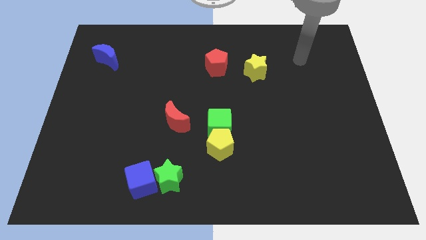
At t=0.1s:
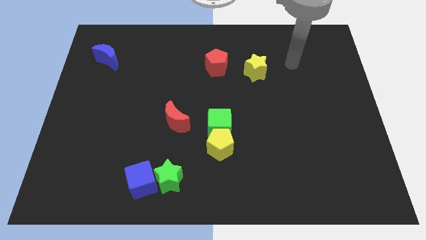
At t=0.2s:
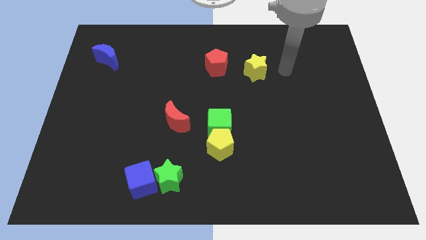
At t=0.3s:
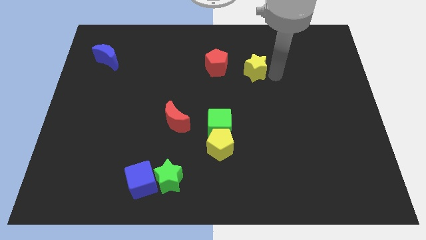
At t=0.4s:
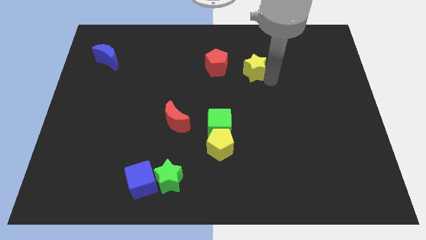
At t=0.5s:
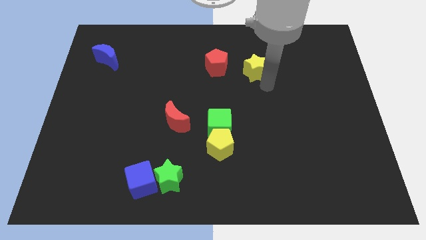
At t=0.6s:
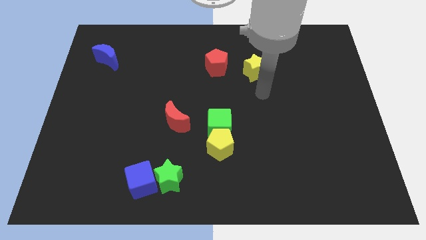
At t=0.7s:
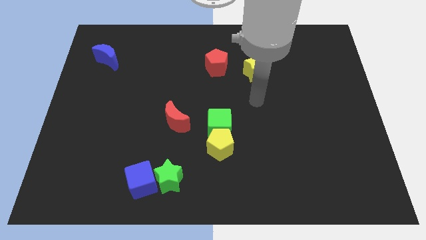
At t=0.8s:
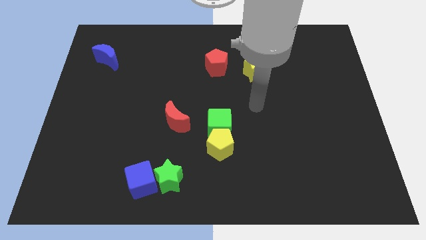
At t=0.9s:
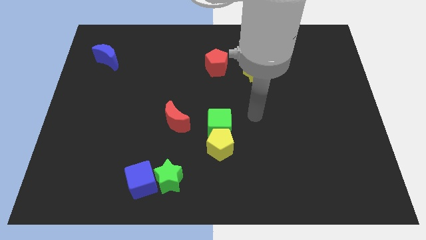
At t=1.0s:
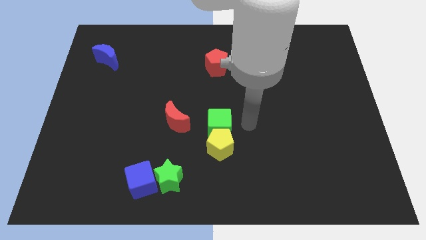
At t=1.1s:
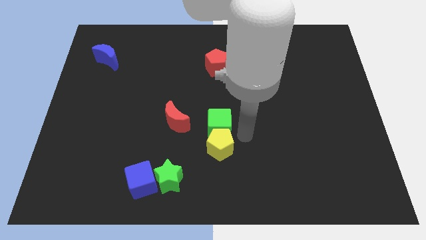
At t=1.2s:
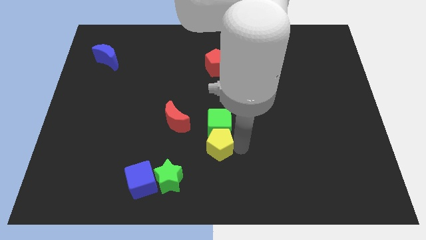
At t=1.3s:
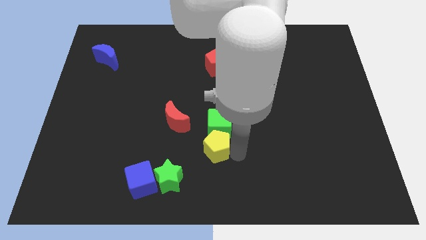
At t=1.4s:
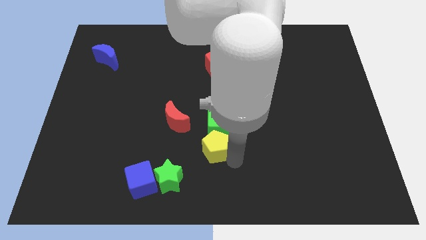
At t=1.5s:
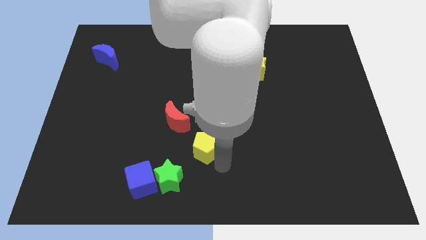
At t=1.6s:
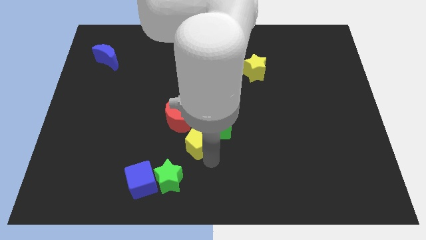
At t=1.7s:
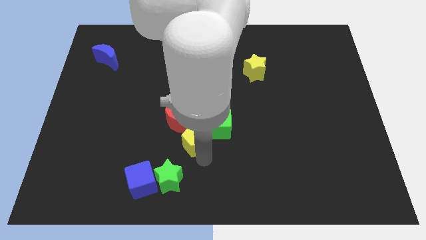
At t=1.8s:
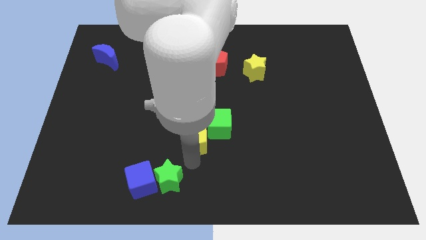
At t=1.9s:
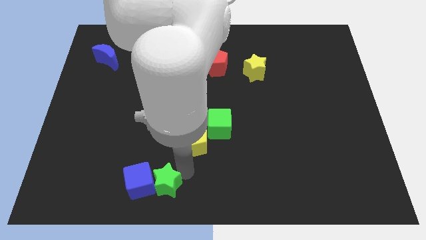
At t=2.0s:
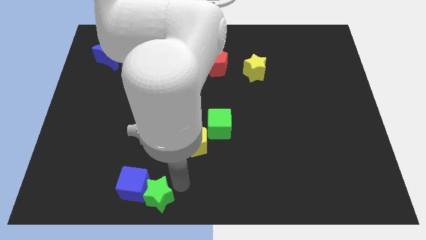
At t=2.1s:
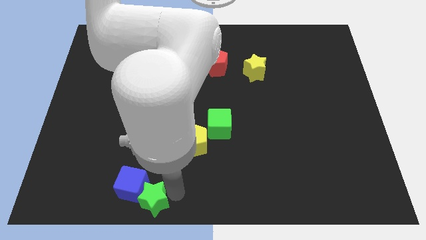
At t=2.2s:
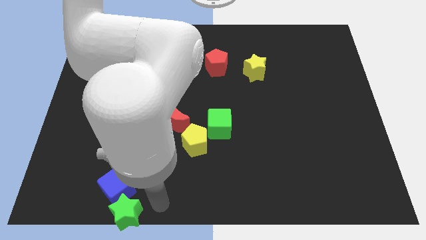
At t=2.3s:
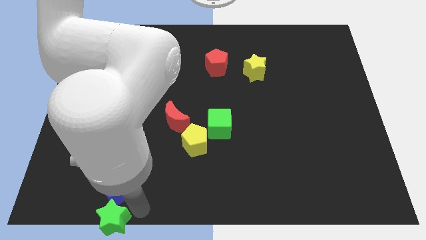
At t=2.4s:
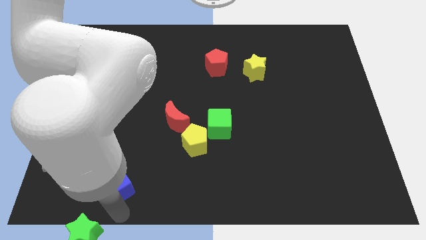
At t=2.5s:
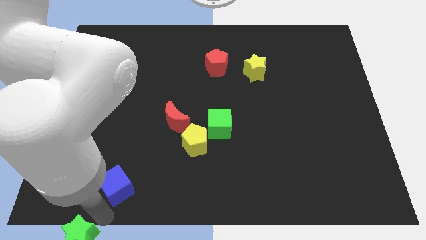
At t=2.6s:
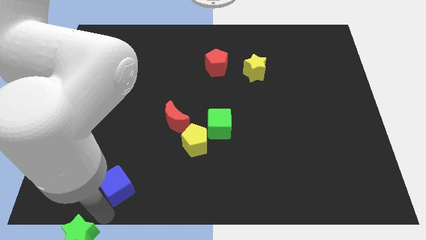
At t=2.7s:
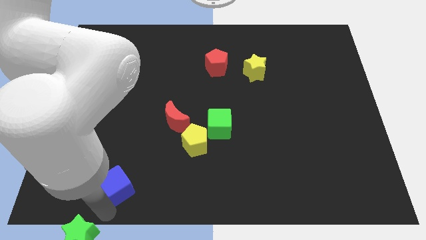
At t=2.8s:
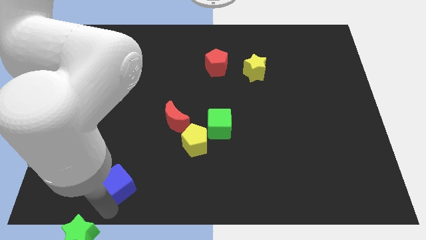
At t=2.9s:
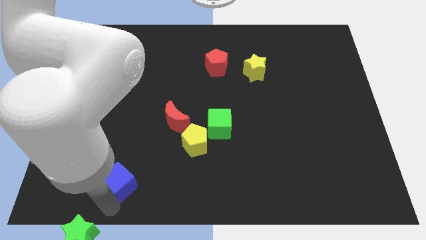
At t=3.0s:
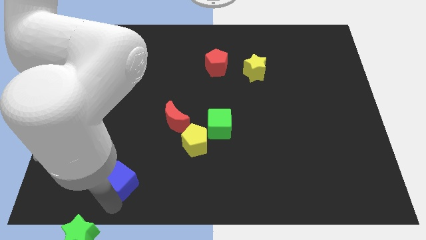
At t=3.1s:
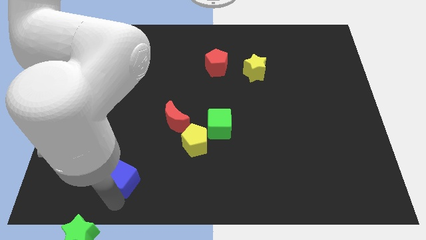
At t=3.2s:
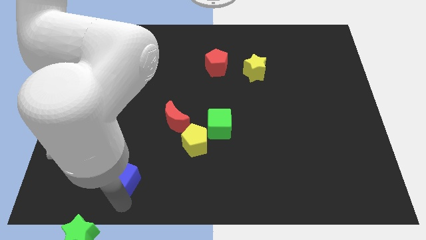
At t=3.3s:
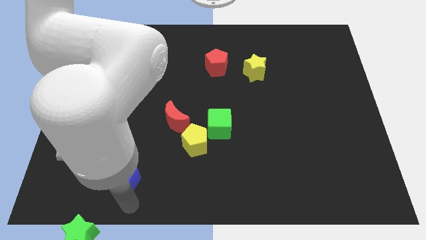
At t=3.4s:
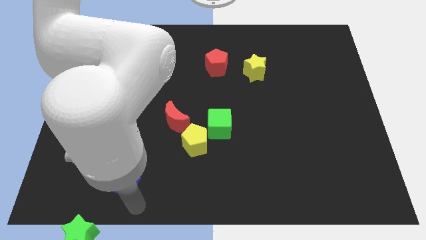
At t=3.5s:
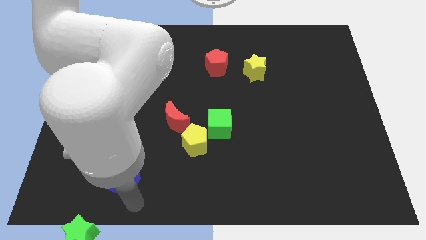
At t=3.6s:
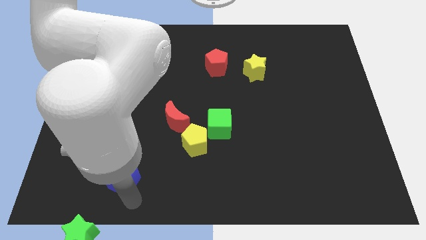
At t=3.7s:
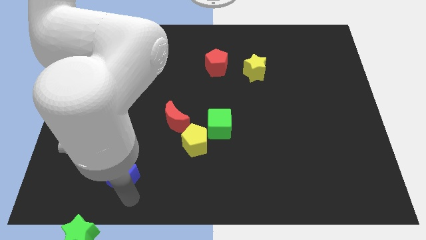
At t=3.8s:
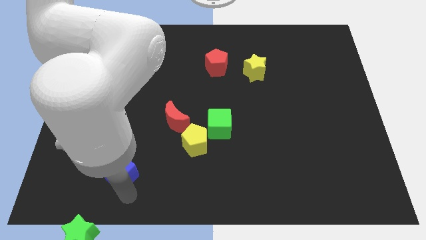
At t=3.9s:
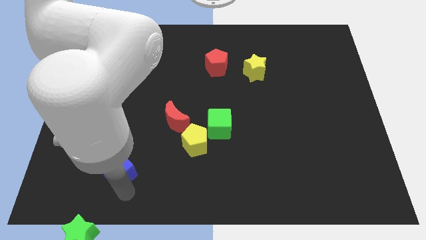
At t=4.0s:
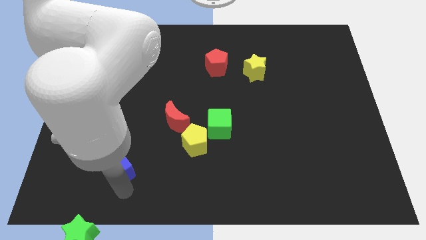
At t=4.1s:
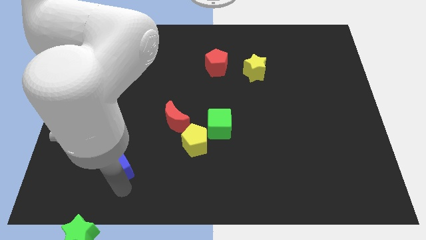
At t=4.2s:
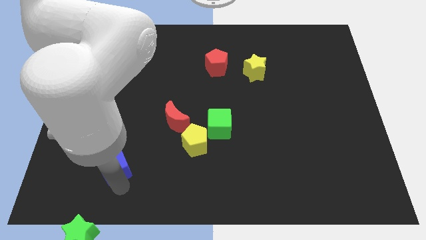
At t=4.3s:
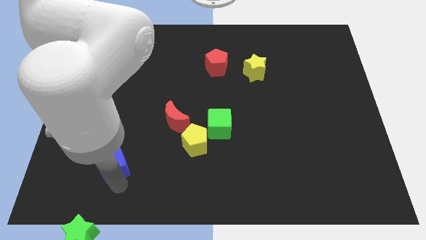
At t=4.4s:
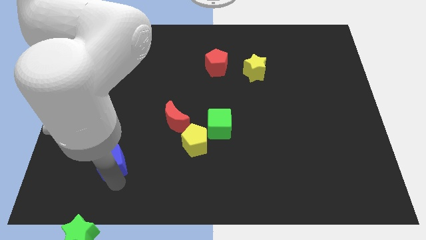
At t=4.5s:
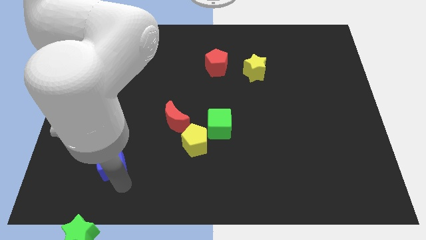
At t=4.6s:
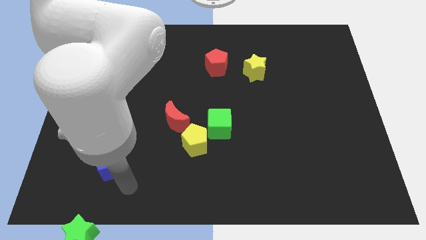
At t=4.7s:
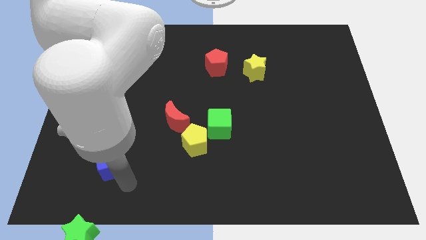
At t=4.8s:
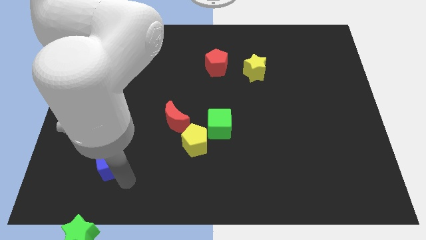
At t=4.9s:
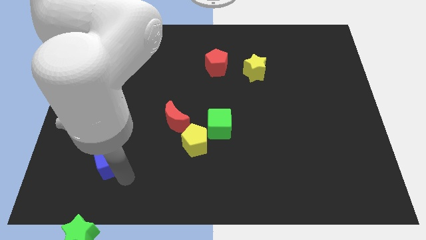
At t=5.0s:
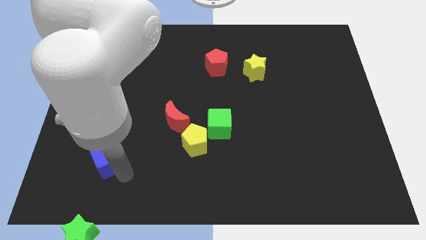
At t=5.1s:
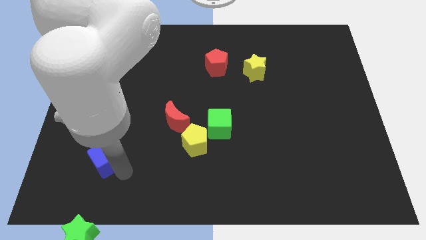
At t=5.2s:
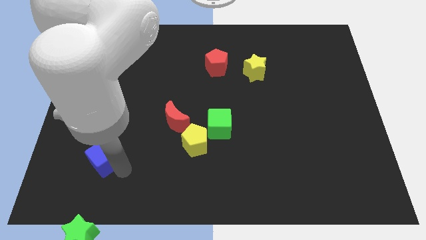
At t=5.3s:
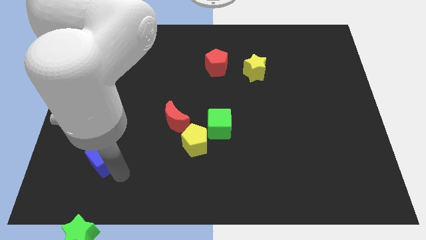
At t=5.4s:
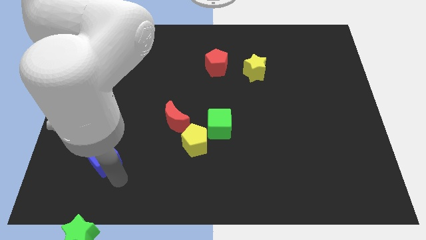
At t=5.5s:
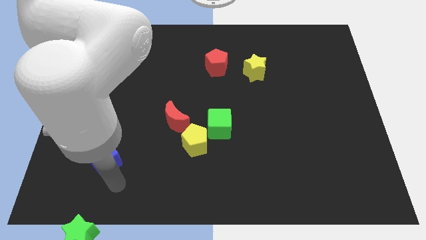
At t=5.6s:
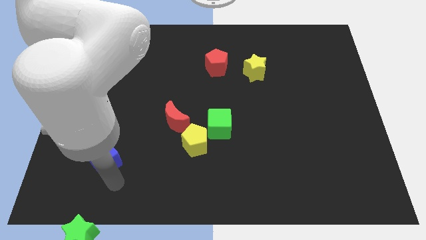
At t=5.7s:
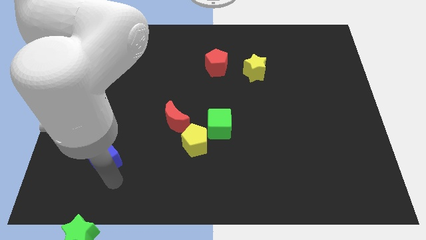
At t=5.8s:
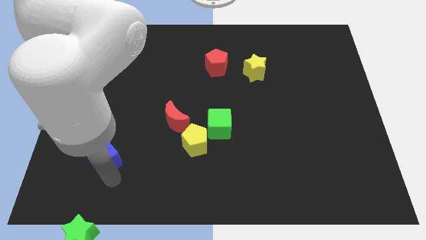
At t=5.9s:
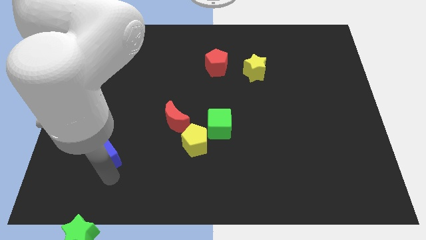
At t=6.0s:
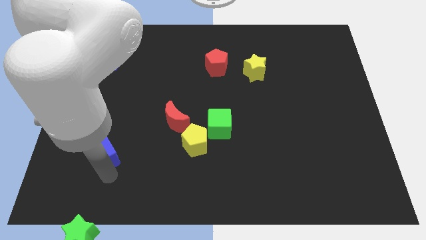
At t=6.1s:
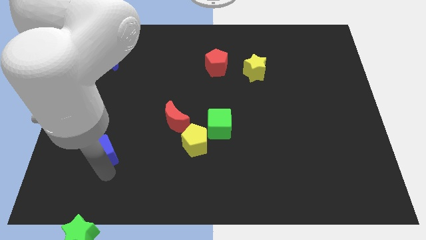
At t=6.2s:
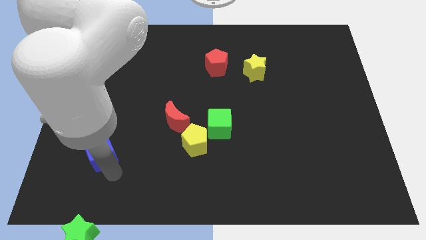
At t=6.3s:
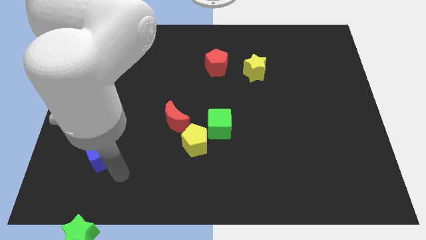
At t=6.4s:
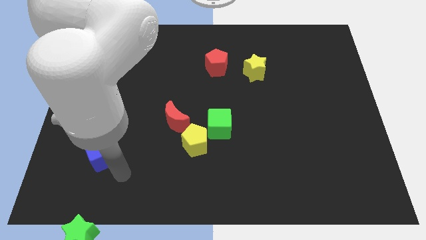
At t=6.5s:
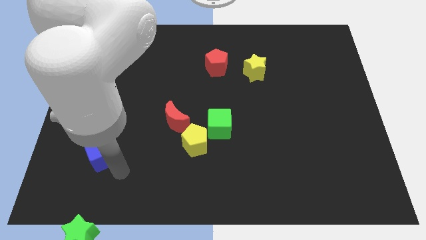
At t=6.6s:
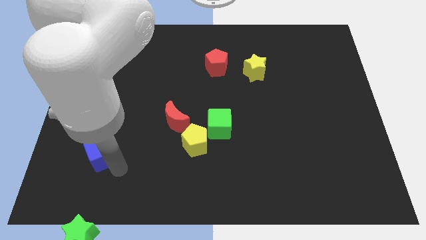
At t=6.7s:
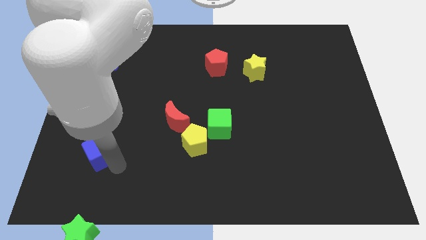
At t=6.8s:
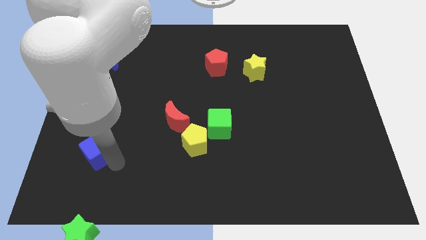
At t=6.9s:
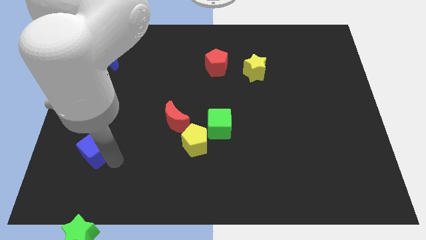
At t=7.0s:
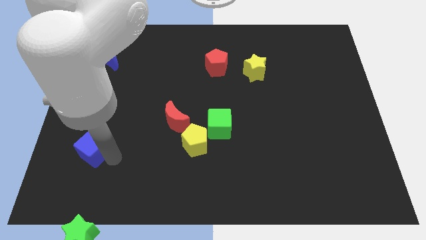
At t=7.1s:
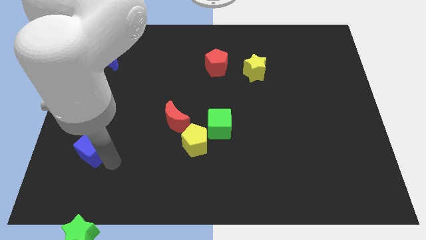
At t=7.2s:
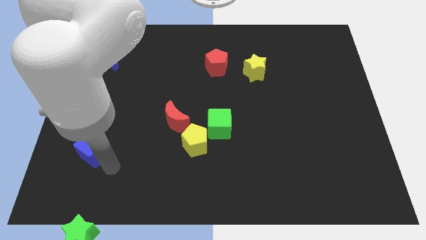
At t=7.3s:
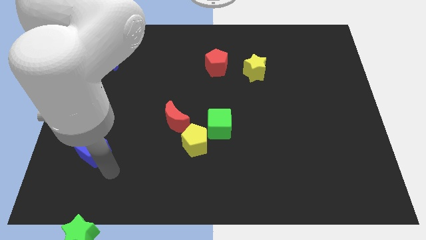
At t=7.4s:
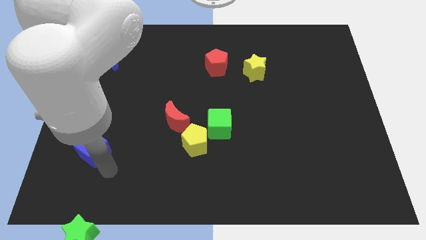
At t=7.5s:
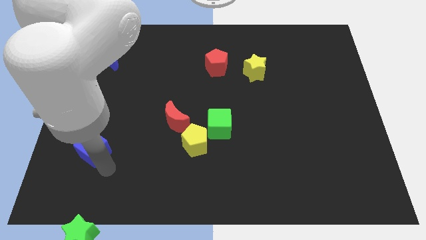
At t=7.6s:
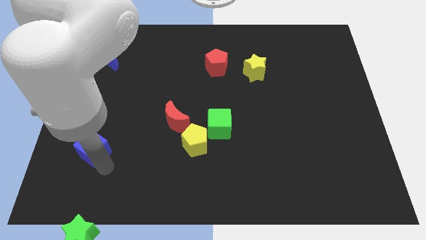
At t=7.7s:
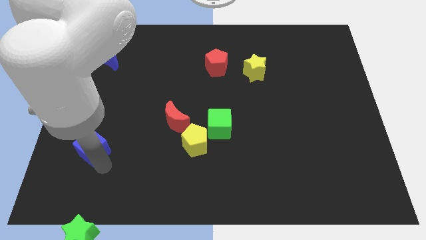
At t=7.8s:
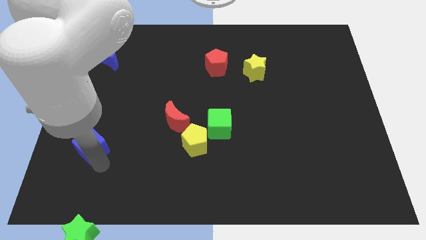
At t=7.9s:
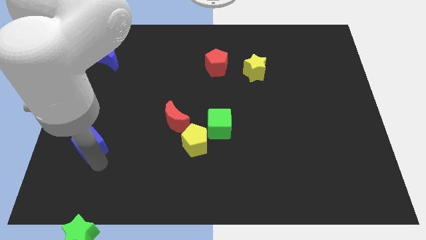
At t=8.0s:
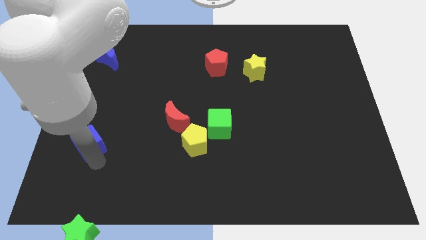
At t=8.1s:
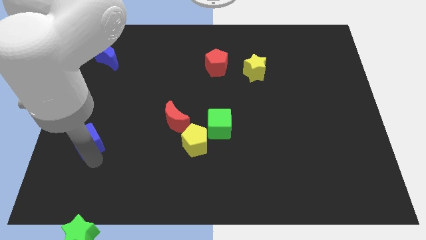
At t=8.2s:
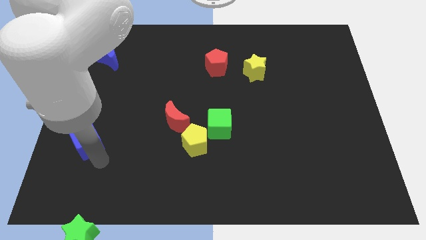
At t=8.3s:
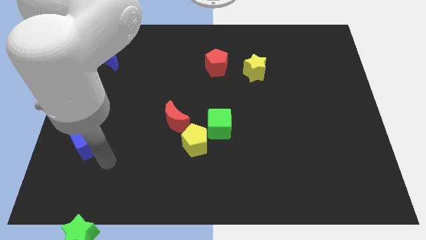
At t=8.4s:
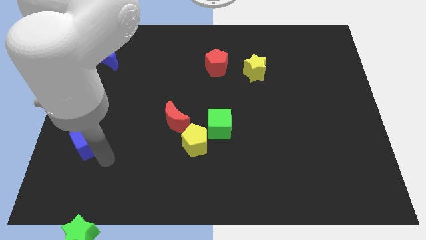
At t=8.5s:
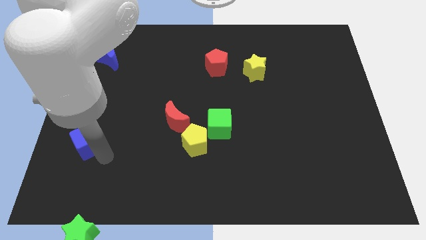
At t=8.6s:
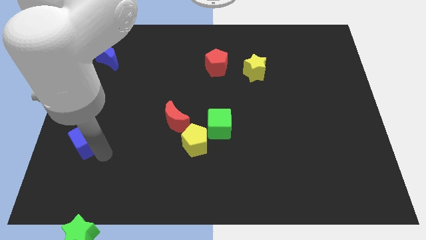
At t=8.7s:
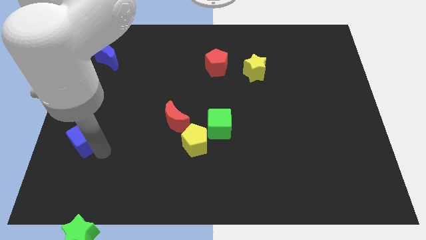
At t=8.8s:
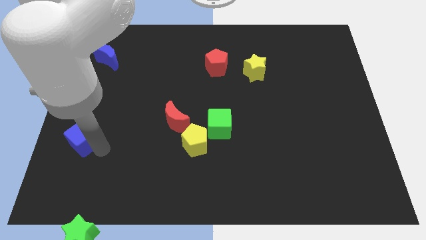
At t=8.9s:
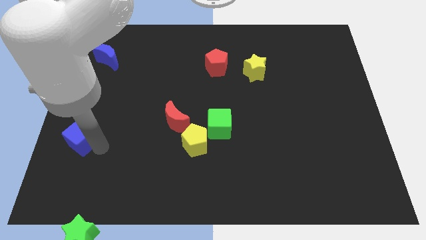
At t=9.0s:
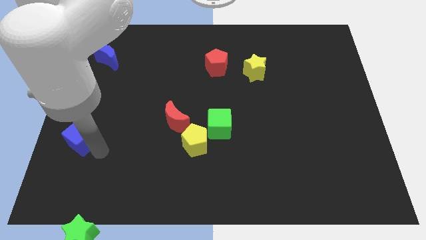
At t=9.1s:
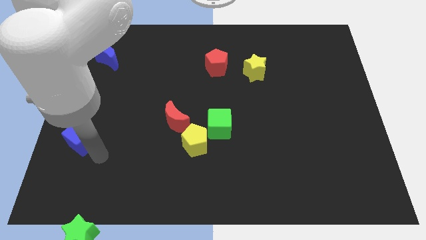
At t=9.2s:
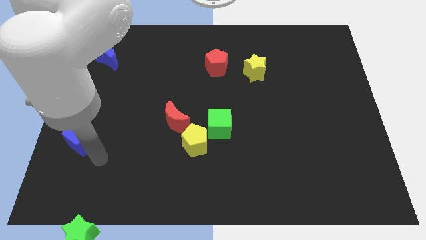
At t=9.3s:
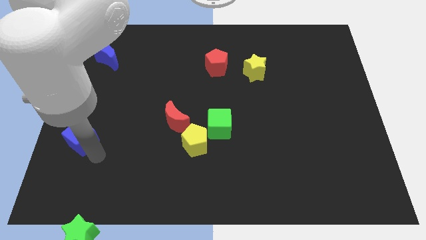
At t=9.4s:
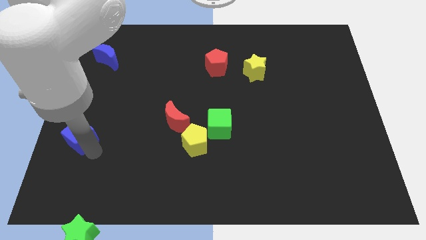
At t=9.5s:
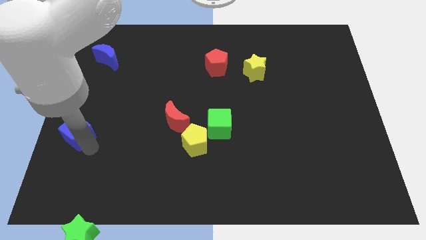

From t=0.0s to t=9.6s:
move the blue cube to the center left
